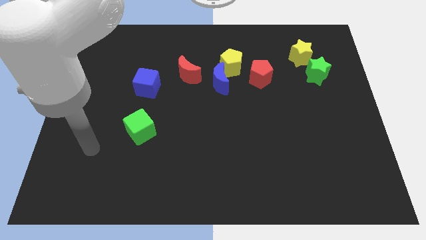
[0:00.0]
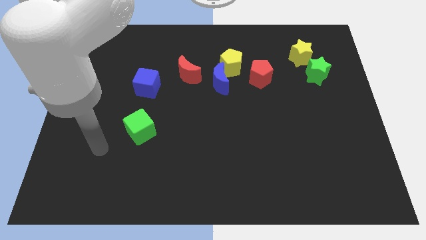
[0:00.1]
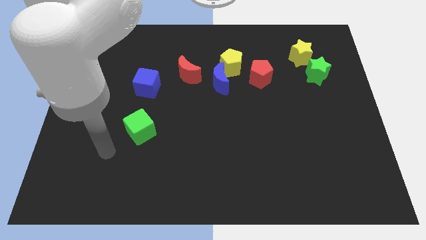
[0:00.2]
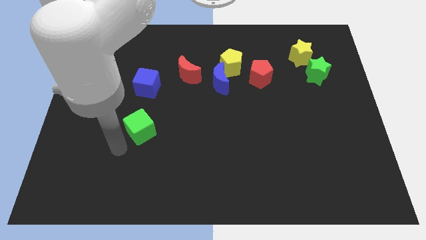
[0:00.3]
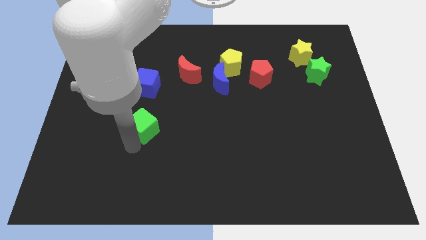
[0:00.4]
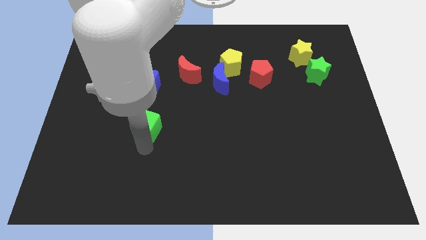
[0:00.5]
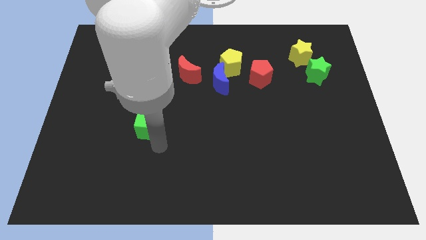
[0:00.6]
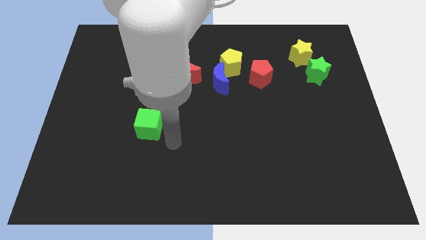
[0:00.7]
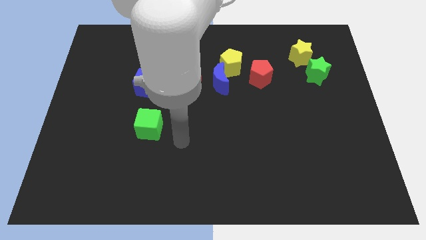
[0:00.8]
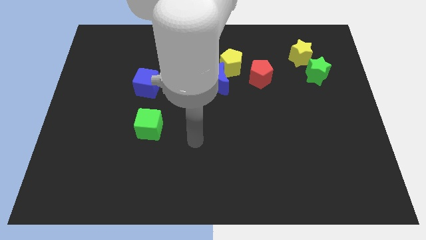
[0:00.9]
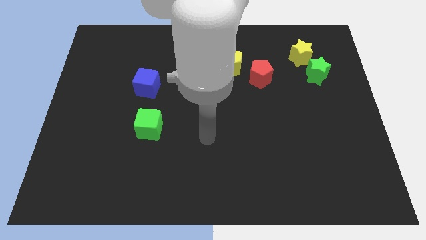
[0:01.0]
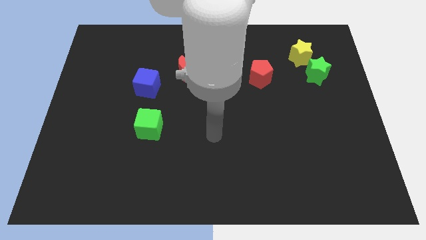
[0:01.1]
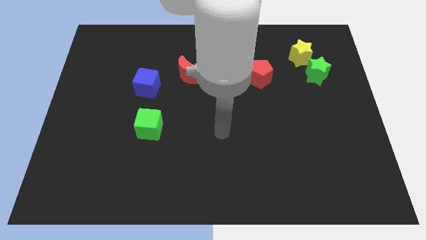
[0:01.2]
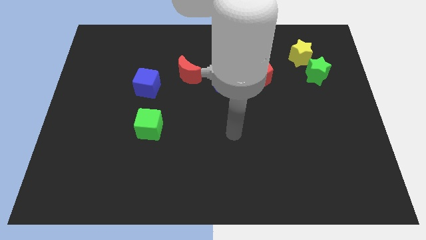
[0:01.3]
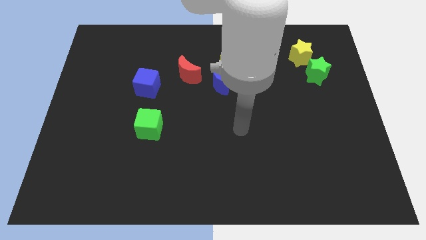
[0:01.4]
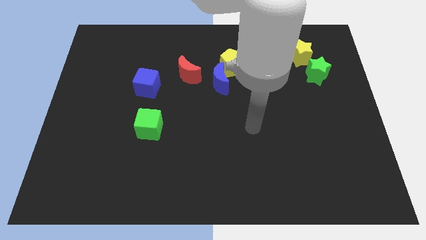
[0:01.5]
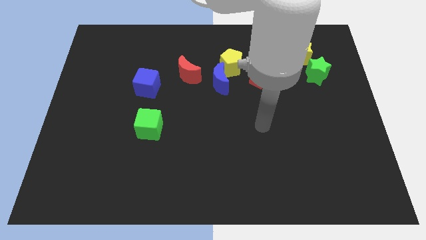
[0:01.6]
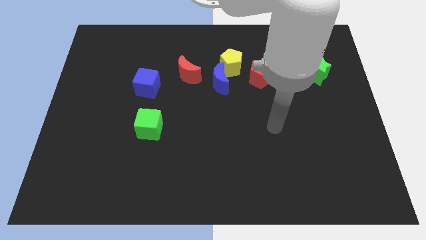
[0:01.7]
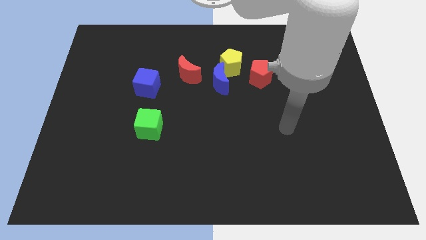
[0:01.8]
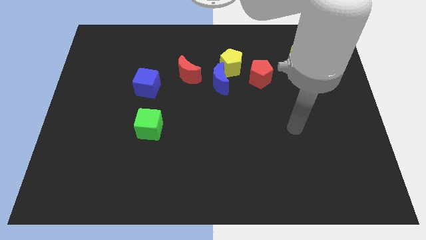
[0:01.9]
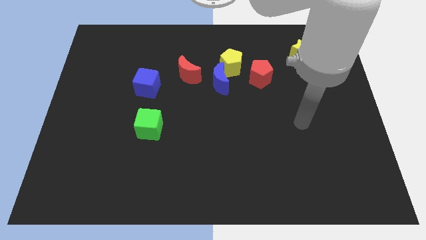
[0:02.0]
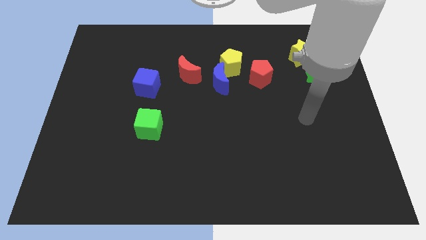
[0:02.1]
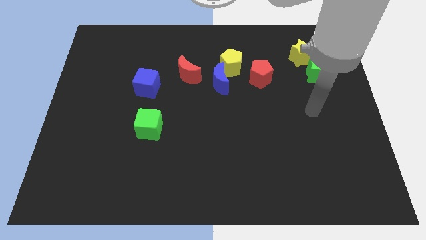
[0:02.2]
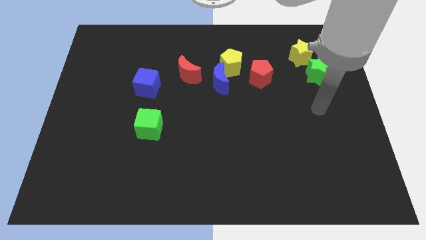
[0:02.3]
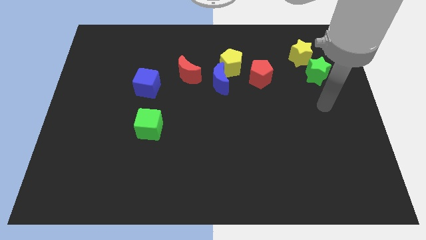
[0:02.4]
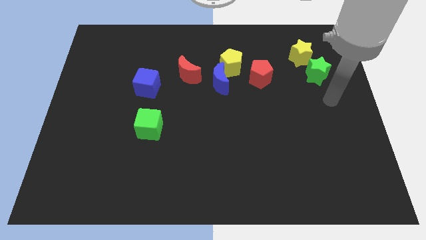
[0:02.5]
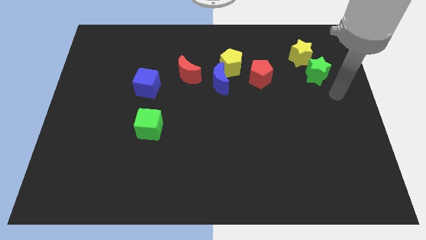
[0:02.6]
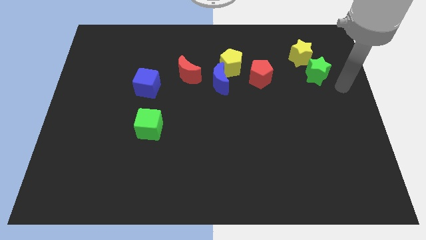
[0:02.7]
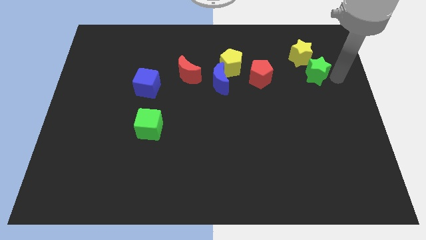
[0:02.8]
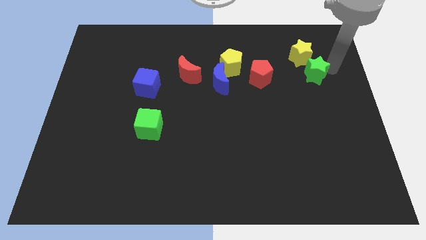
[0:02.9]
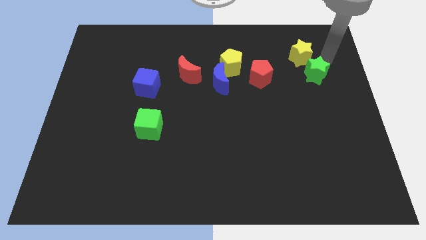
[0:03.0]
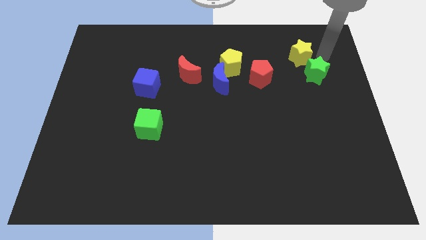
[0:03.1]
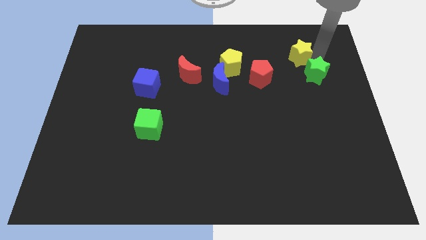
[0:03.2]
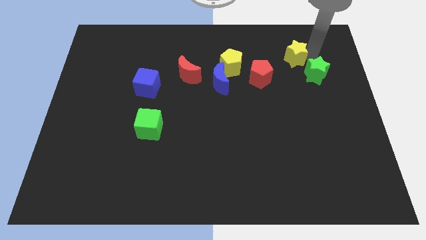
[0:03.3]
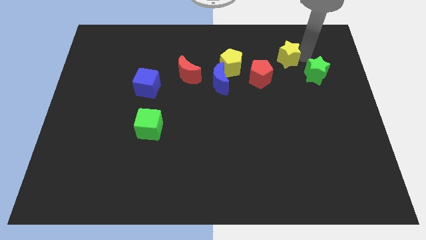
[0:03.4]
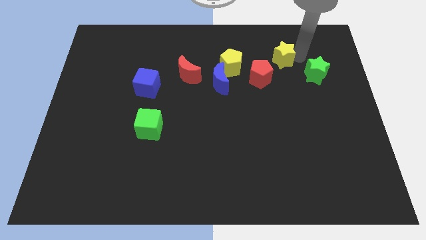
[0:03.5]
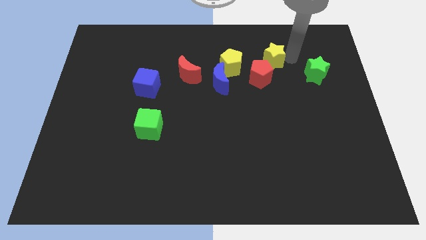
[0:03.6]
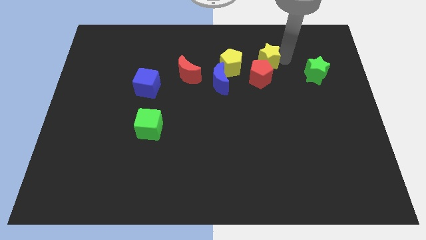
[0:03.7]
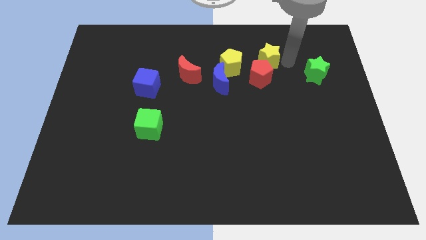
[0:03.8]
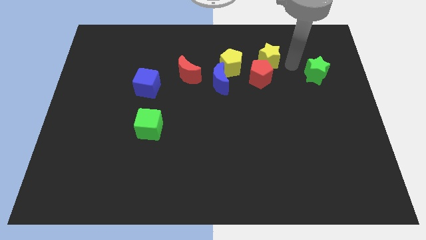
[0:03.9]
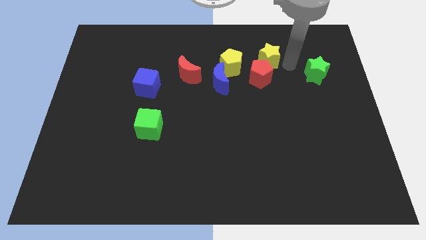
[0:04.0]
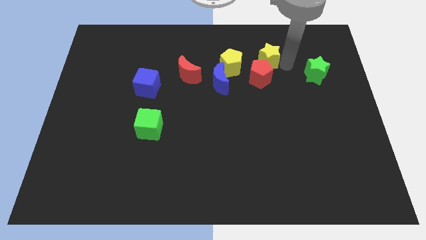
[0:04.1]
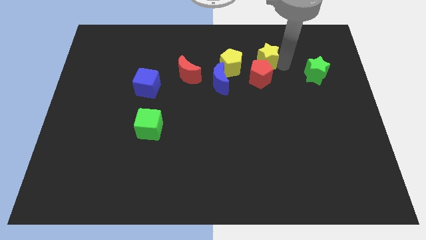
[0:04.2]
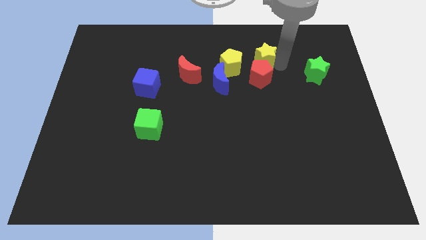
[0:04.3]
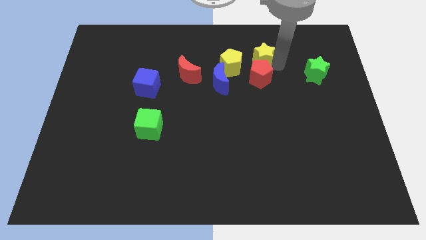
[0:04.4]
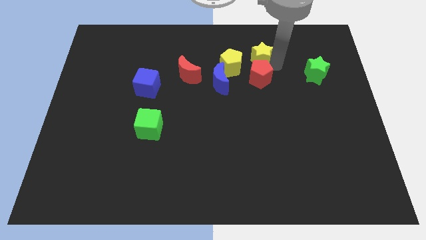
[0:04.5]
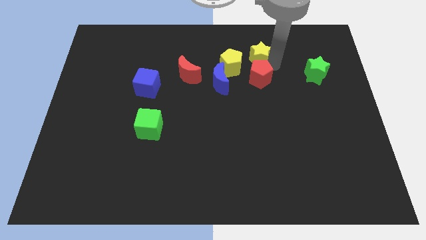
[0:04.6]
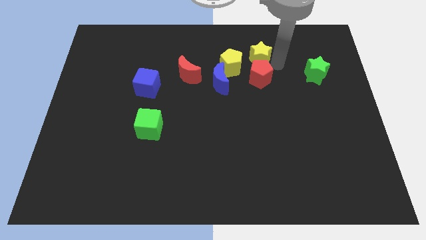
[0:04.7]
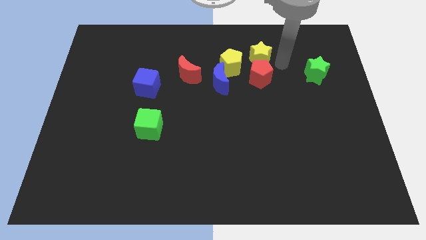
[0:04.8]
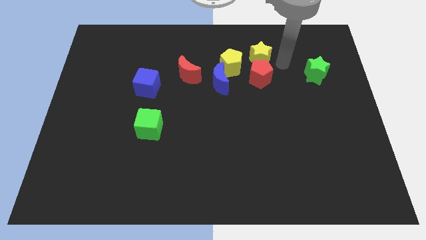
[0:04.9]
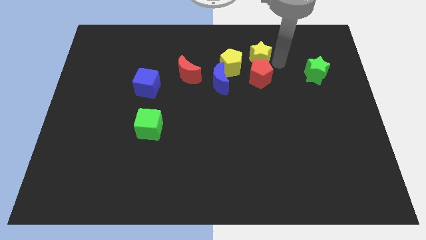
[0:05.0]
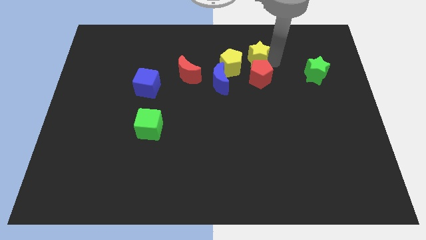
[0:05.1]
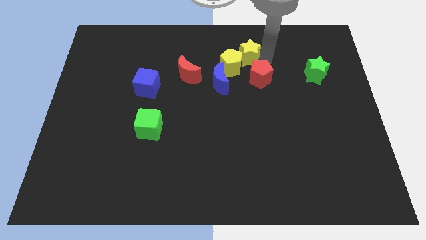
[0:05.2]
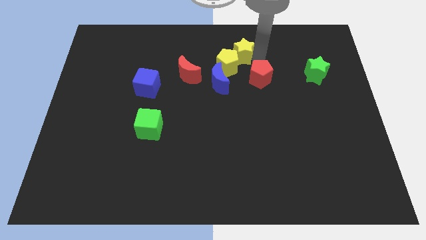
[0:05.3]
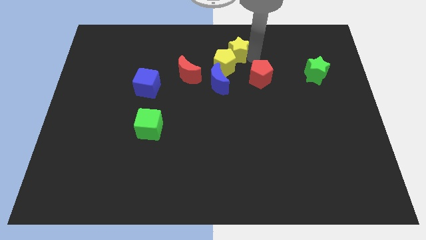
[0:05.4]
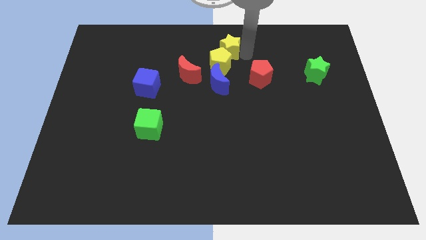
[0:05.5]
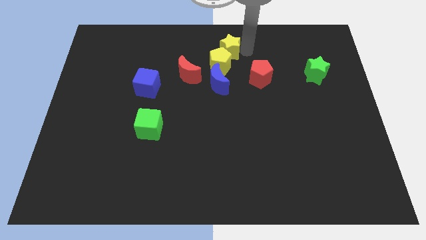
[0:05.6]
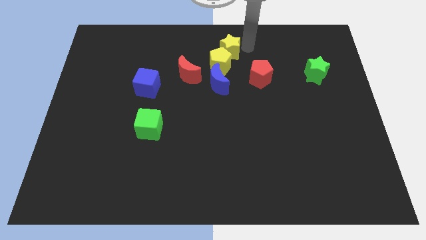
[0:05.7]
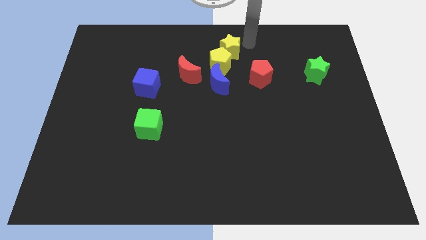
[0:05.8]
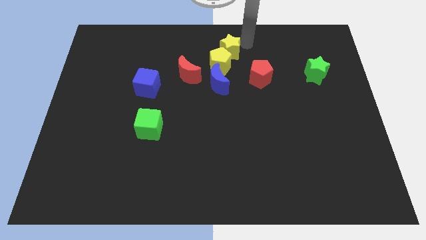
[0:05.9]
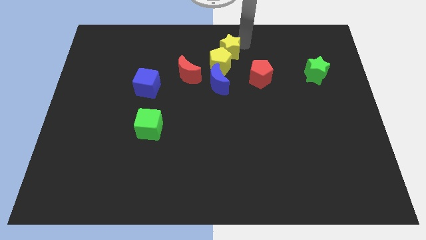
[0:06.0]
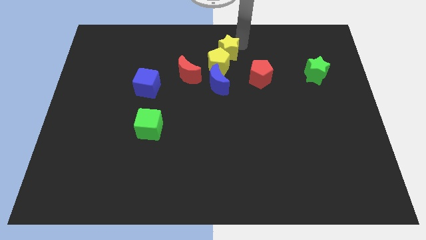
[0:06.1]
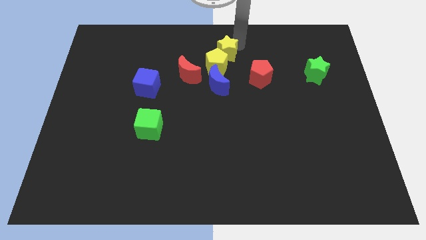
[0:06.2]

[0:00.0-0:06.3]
push the yellow star to the top right side of the red moon

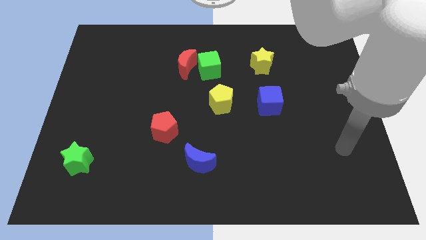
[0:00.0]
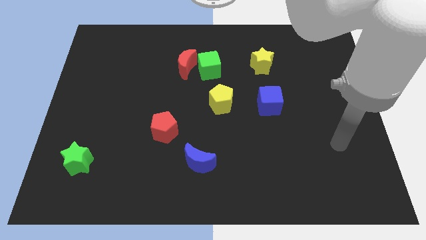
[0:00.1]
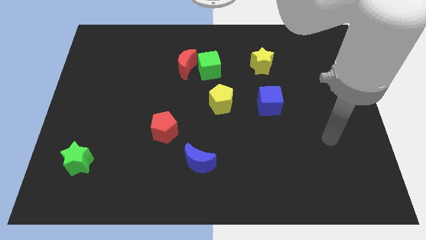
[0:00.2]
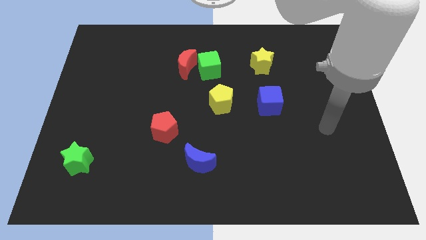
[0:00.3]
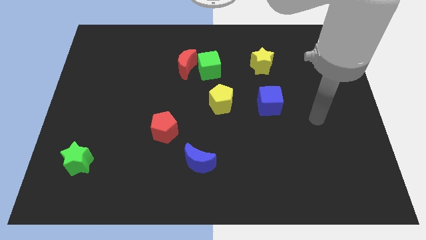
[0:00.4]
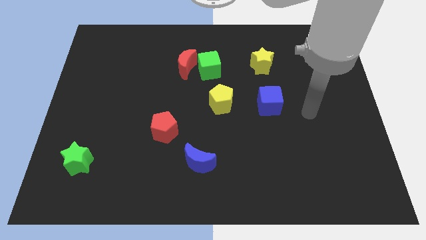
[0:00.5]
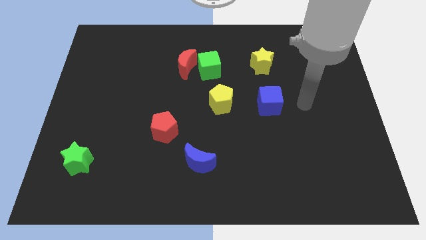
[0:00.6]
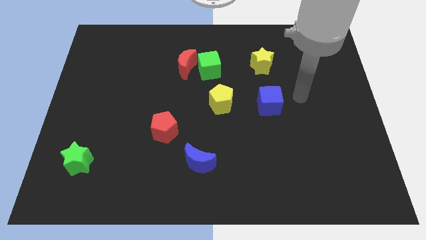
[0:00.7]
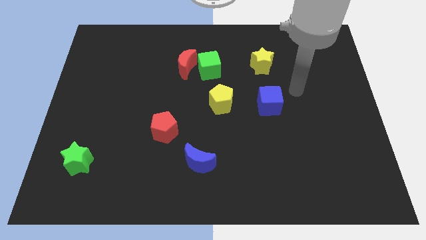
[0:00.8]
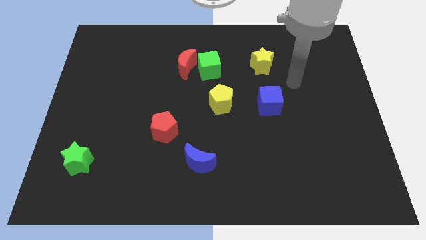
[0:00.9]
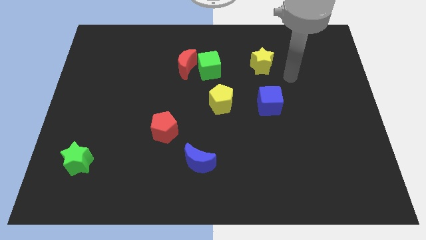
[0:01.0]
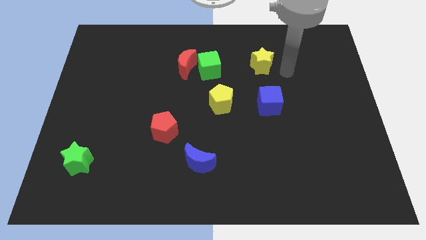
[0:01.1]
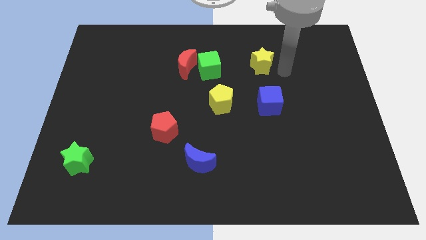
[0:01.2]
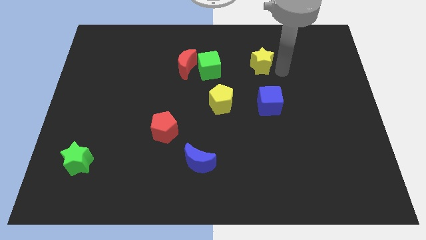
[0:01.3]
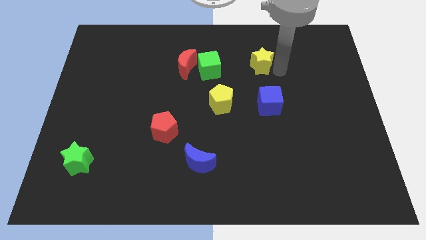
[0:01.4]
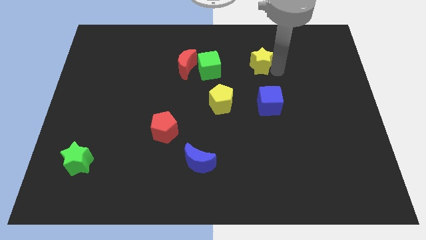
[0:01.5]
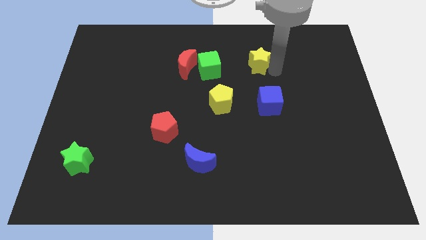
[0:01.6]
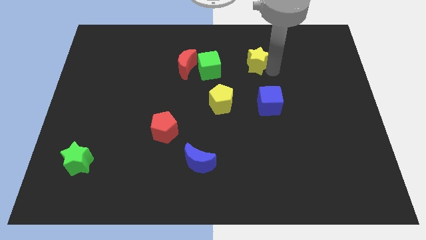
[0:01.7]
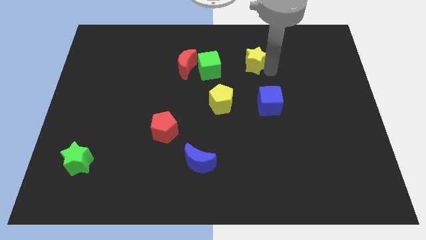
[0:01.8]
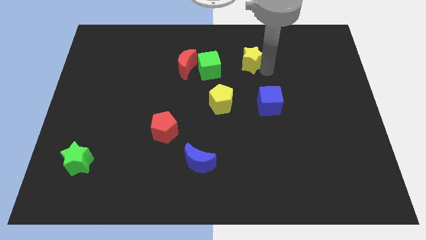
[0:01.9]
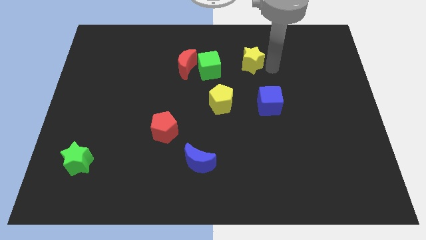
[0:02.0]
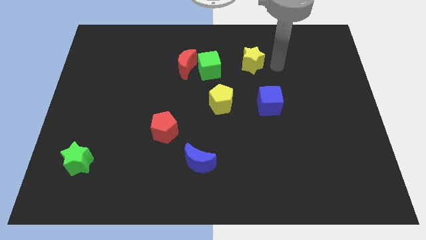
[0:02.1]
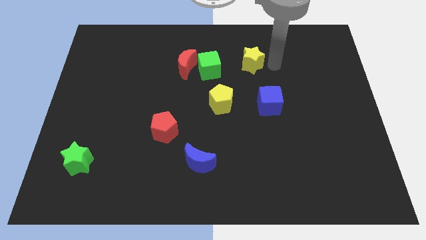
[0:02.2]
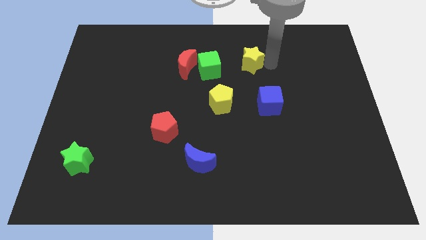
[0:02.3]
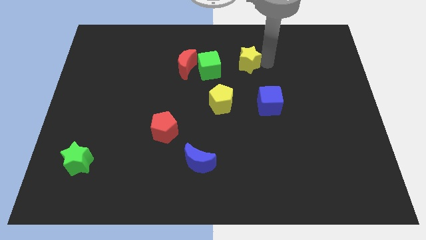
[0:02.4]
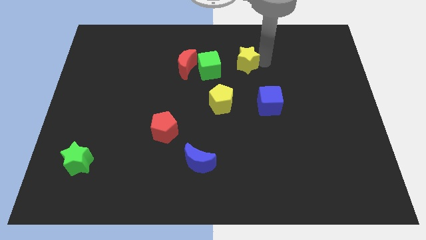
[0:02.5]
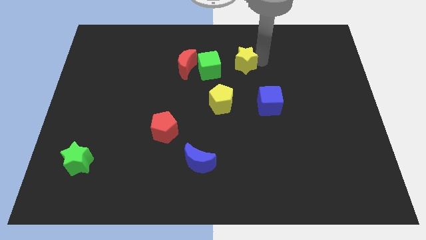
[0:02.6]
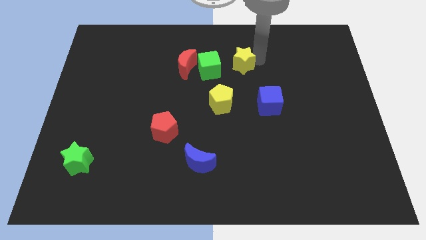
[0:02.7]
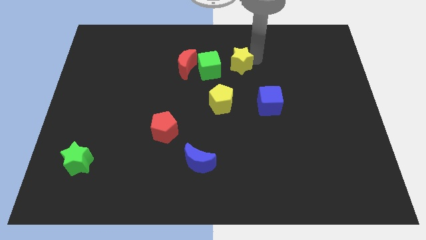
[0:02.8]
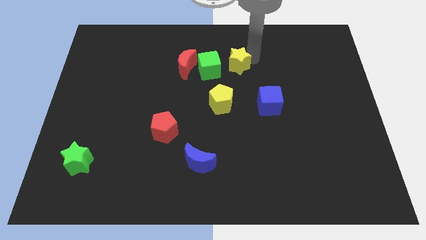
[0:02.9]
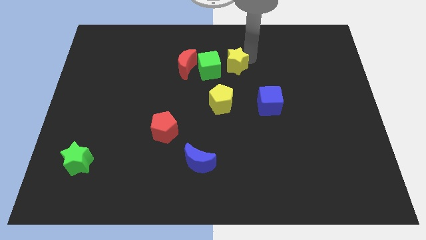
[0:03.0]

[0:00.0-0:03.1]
put the yellow star above the yellow pentagon
